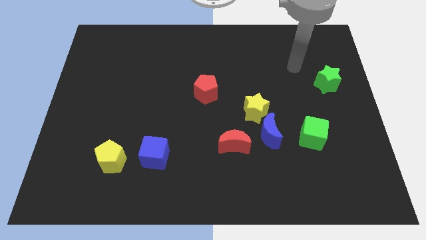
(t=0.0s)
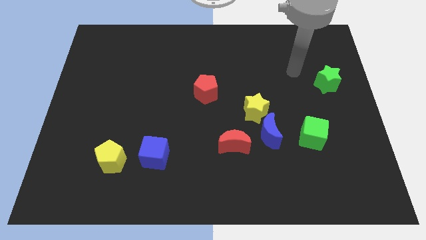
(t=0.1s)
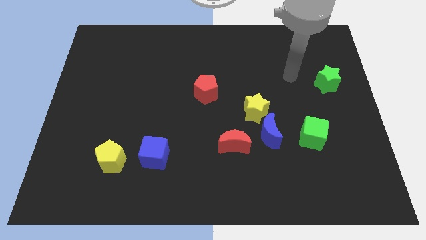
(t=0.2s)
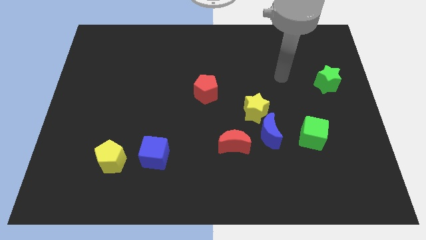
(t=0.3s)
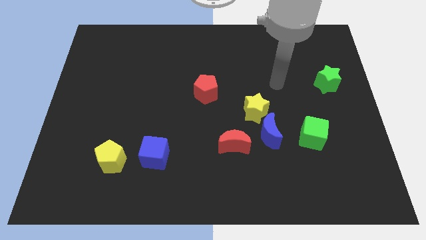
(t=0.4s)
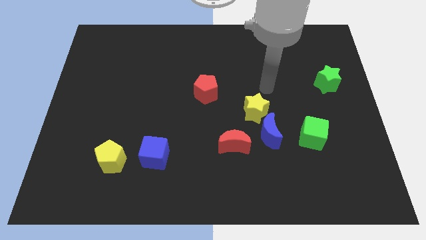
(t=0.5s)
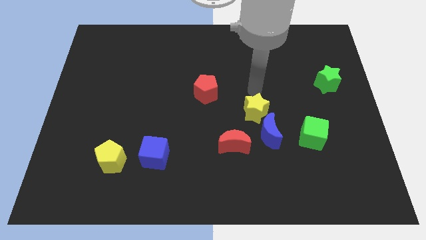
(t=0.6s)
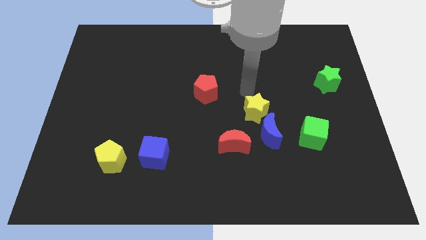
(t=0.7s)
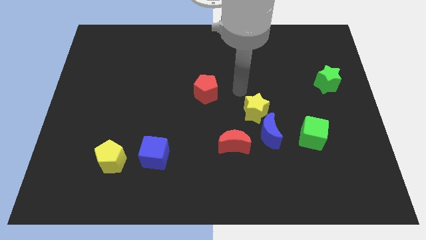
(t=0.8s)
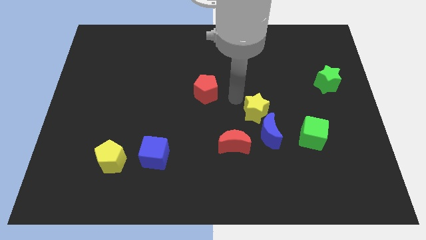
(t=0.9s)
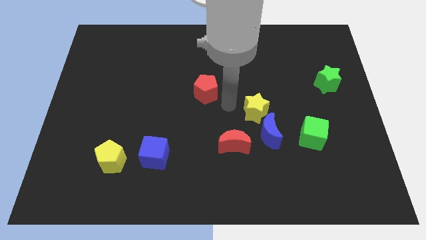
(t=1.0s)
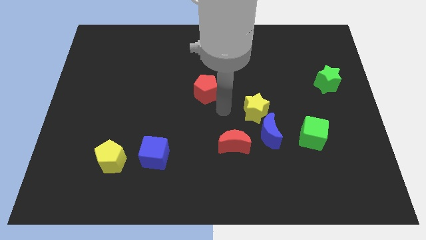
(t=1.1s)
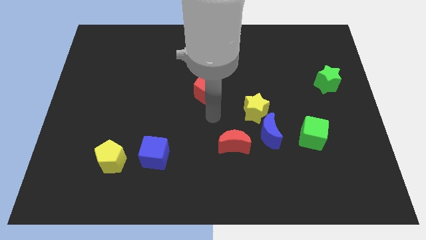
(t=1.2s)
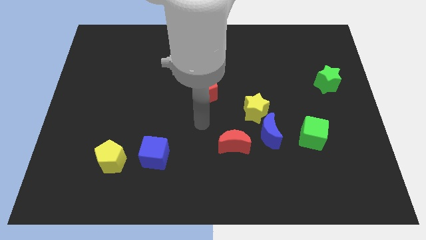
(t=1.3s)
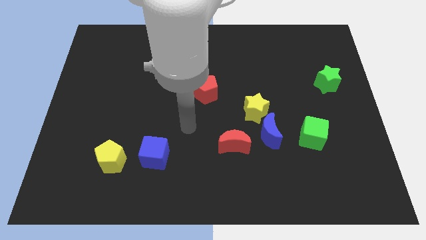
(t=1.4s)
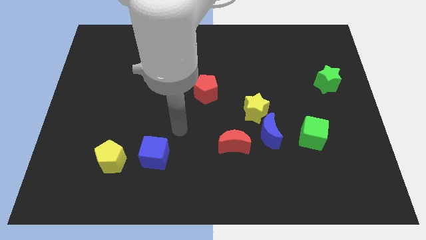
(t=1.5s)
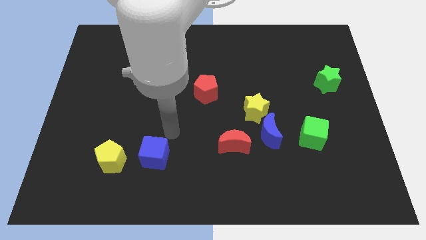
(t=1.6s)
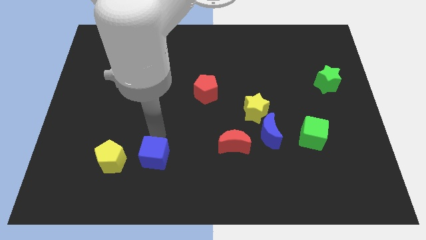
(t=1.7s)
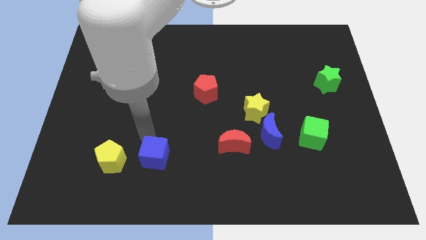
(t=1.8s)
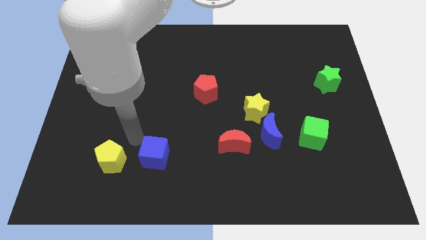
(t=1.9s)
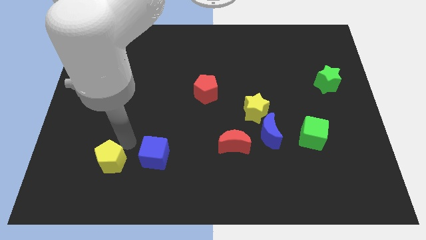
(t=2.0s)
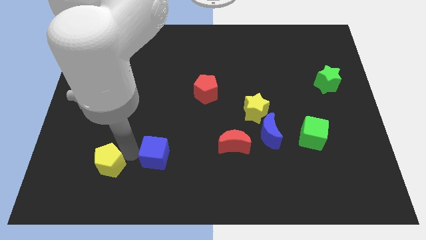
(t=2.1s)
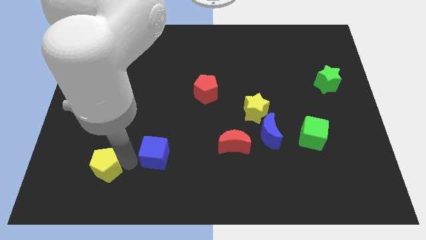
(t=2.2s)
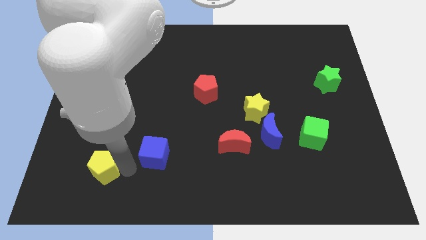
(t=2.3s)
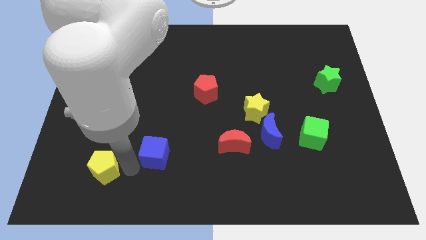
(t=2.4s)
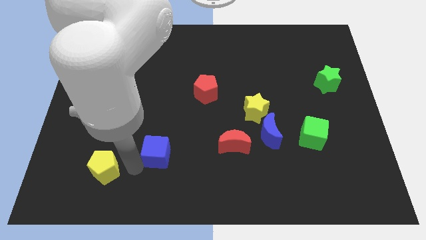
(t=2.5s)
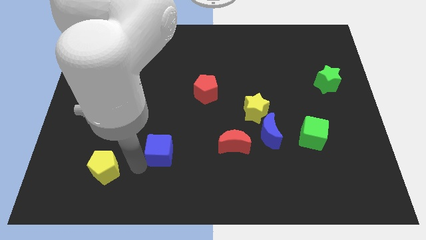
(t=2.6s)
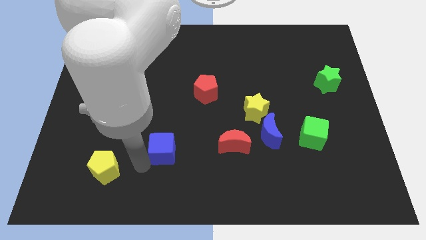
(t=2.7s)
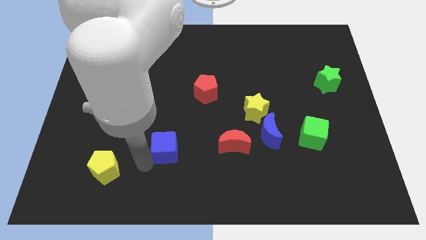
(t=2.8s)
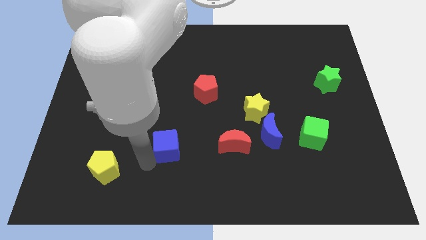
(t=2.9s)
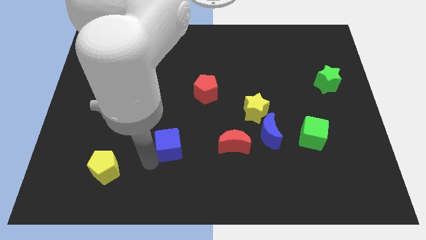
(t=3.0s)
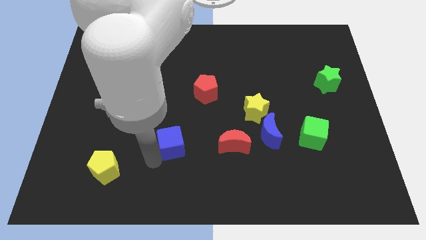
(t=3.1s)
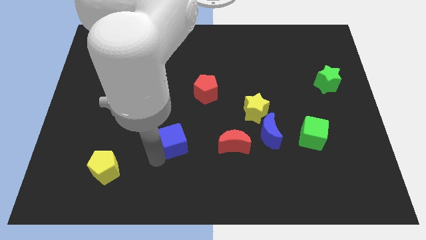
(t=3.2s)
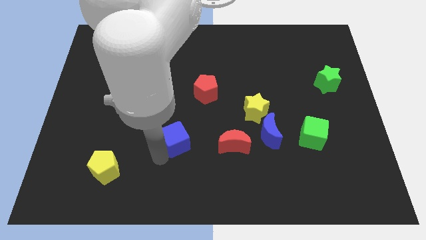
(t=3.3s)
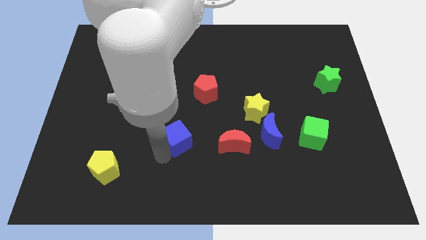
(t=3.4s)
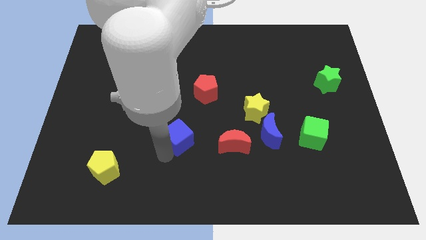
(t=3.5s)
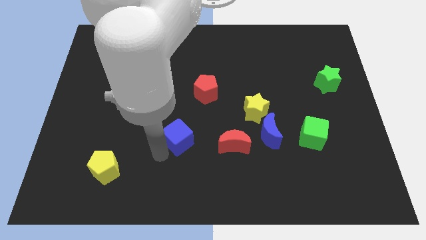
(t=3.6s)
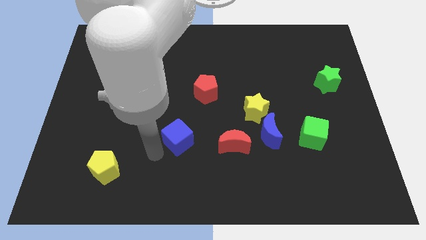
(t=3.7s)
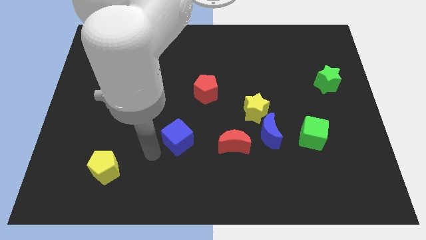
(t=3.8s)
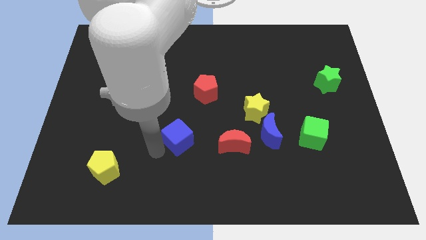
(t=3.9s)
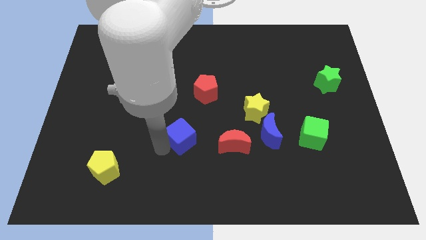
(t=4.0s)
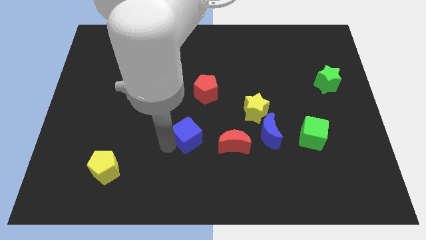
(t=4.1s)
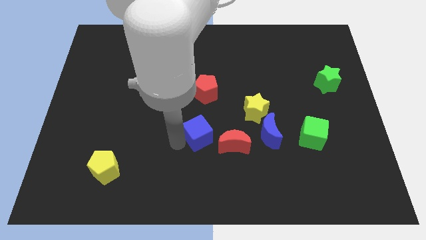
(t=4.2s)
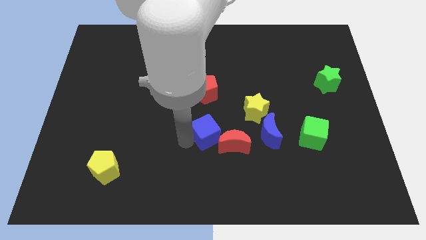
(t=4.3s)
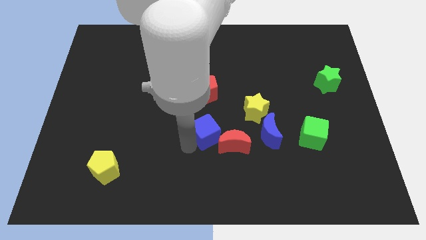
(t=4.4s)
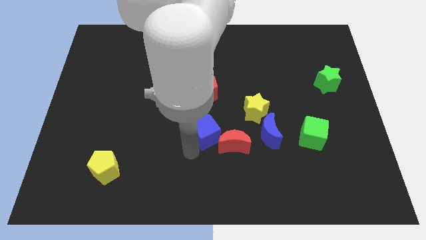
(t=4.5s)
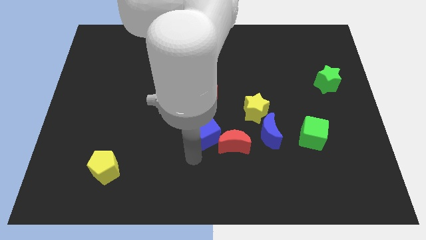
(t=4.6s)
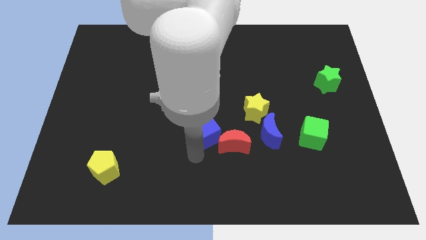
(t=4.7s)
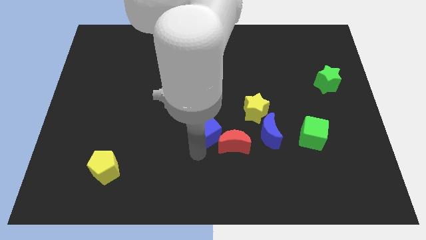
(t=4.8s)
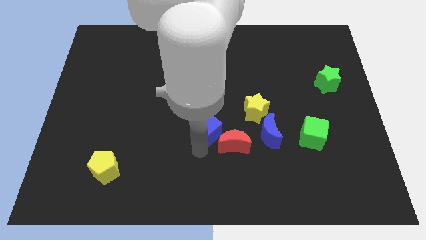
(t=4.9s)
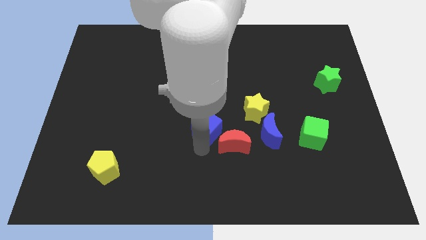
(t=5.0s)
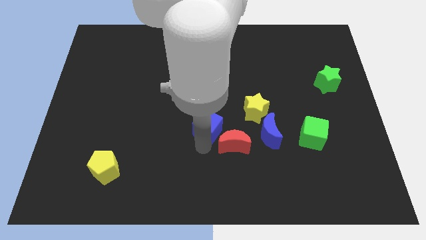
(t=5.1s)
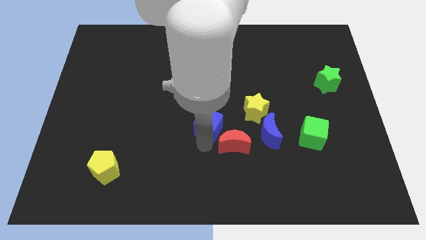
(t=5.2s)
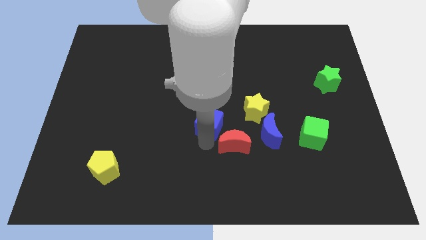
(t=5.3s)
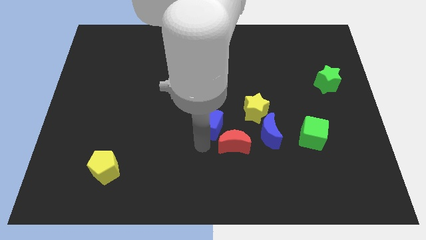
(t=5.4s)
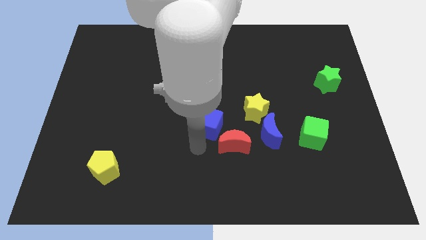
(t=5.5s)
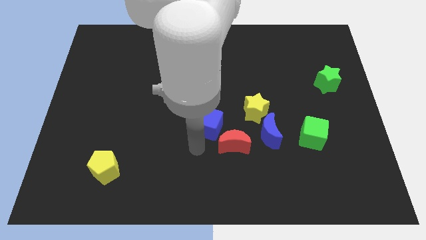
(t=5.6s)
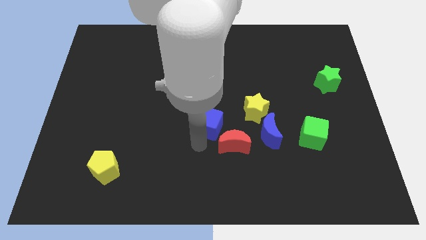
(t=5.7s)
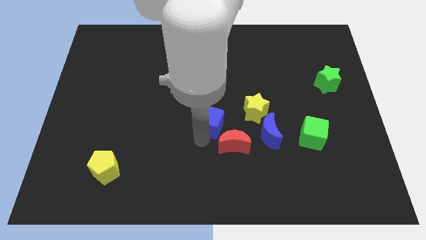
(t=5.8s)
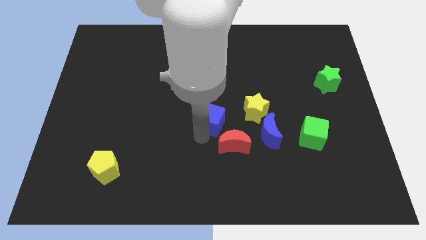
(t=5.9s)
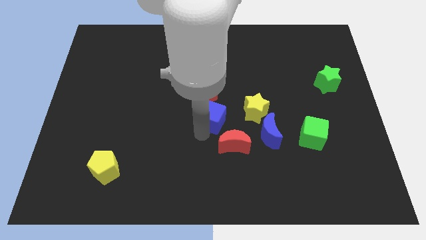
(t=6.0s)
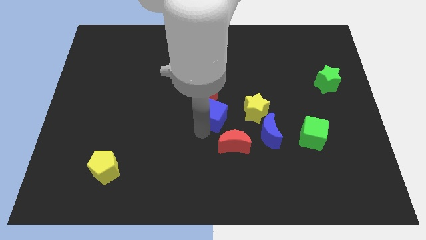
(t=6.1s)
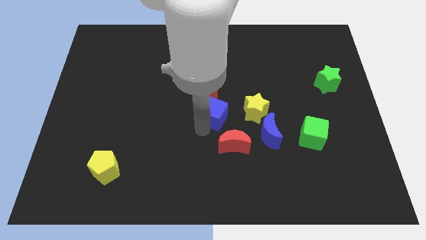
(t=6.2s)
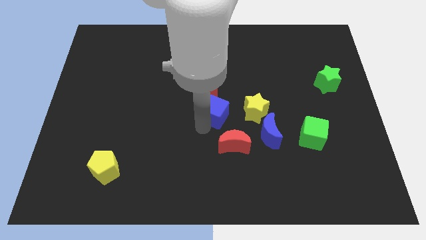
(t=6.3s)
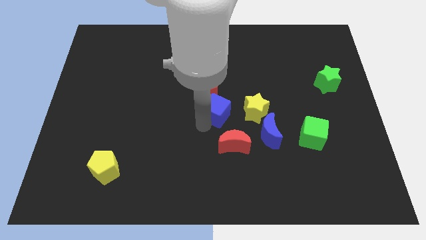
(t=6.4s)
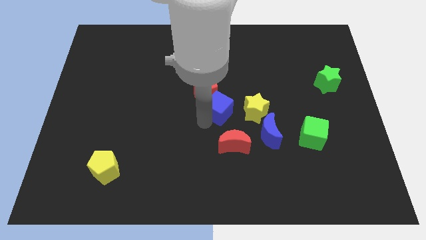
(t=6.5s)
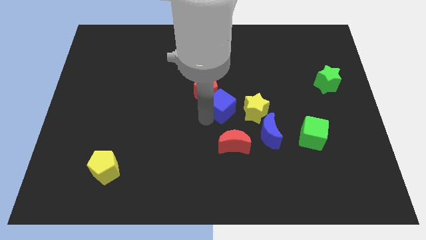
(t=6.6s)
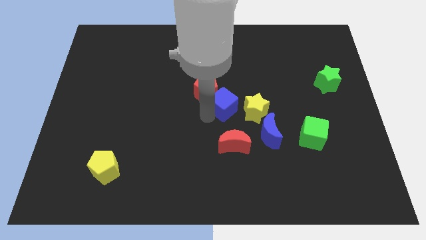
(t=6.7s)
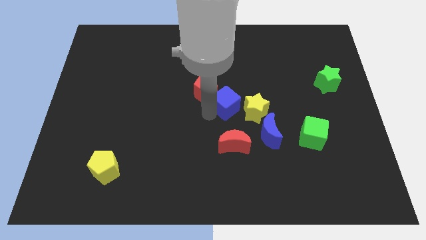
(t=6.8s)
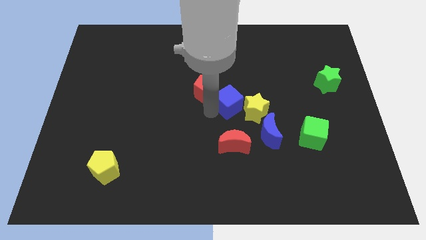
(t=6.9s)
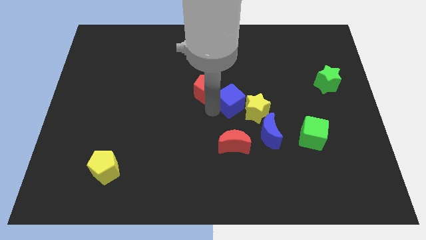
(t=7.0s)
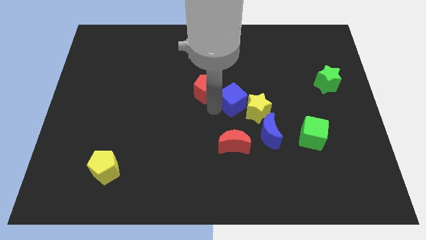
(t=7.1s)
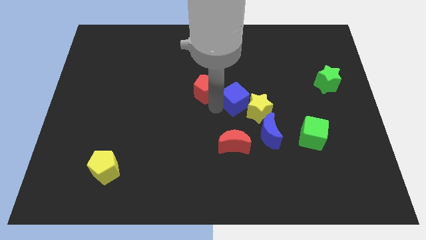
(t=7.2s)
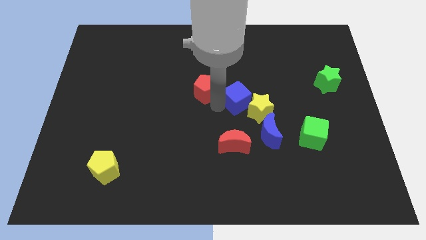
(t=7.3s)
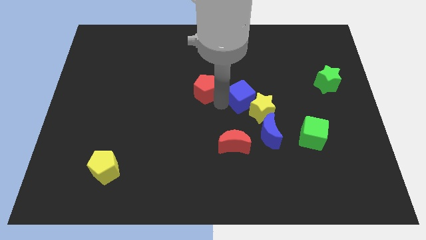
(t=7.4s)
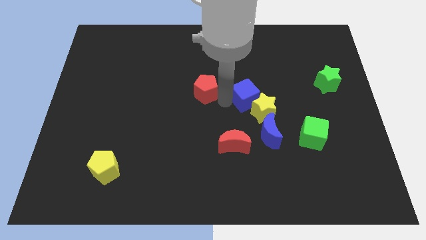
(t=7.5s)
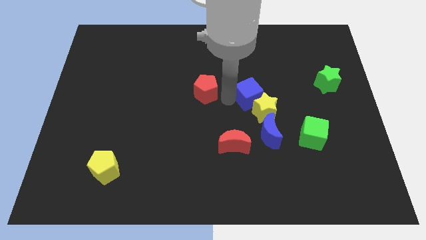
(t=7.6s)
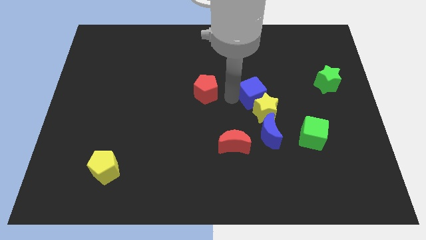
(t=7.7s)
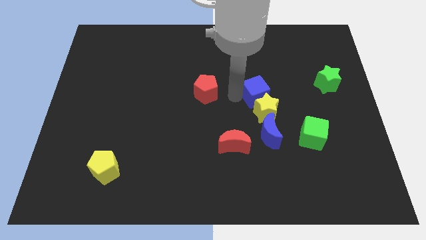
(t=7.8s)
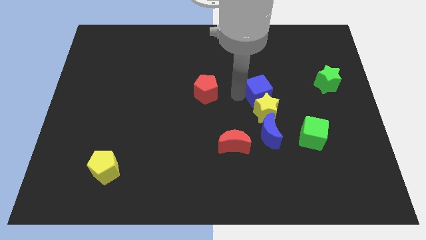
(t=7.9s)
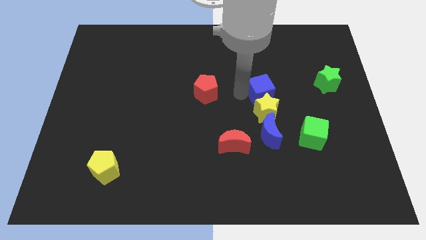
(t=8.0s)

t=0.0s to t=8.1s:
slide the blue cube to the top right side of the yellow star
